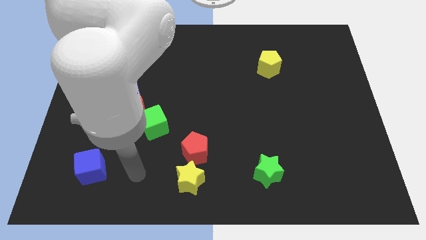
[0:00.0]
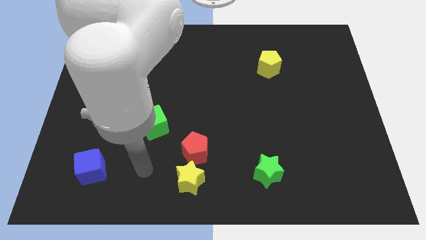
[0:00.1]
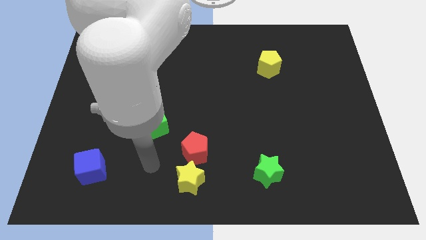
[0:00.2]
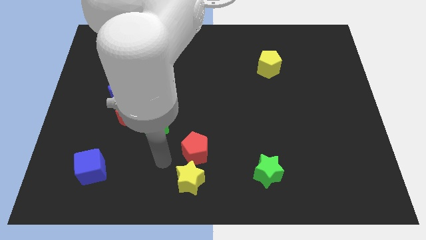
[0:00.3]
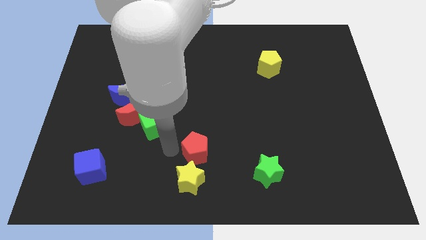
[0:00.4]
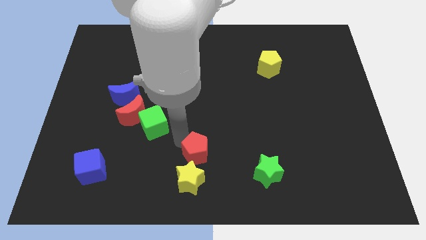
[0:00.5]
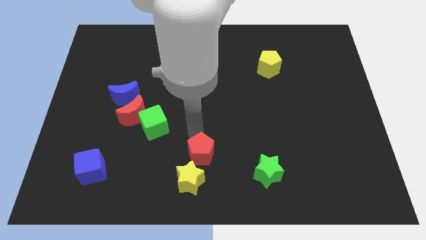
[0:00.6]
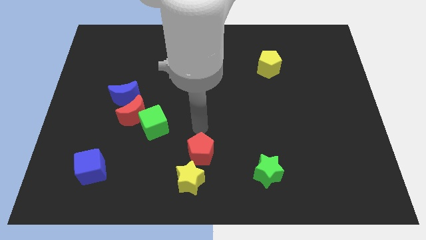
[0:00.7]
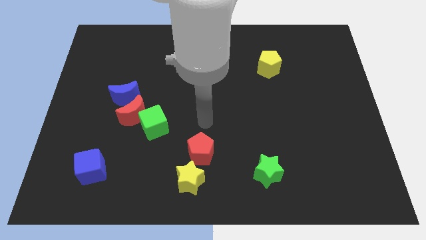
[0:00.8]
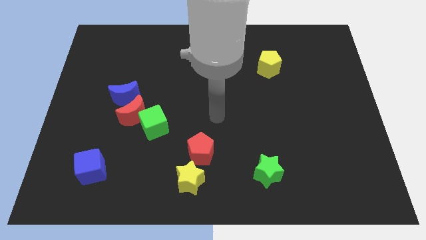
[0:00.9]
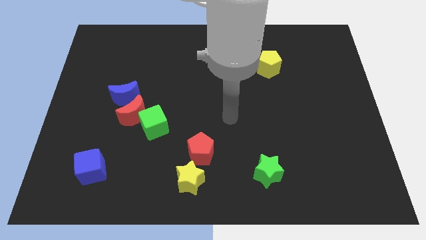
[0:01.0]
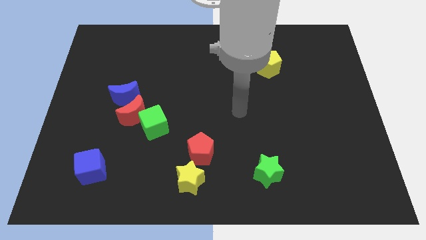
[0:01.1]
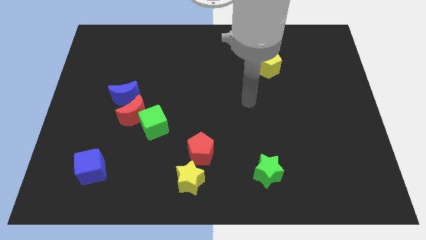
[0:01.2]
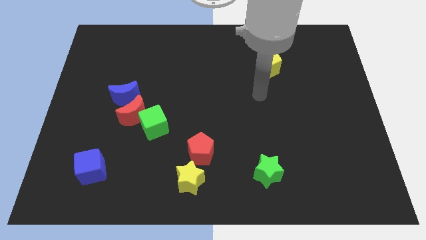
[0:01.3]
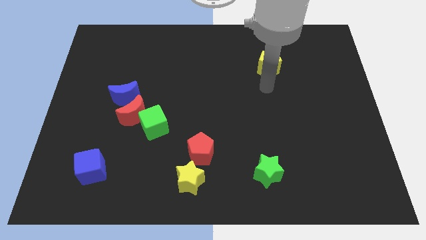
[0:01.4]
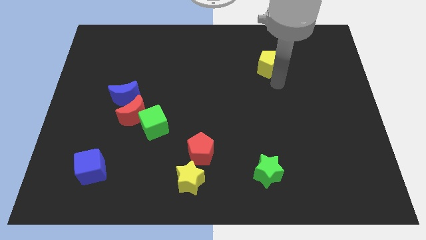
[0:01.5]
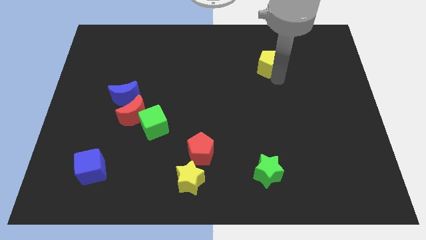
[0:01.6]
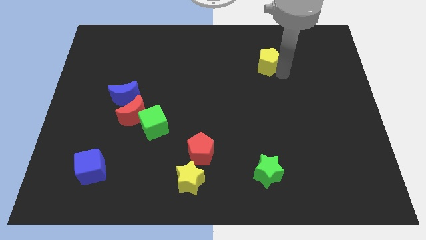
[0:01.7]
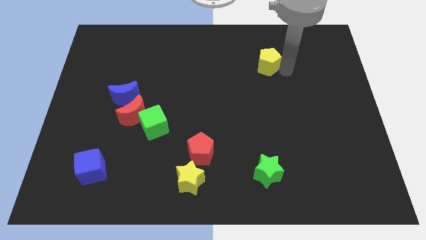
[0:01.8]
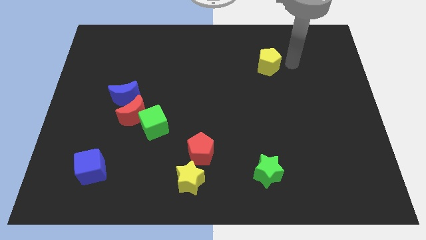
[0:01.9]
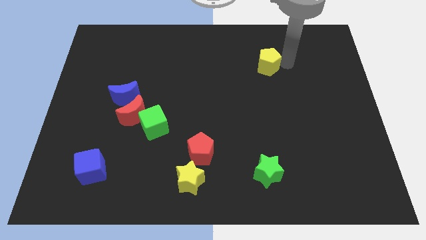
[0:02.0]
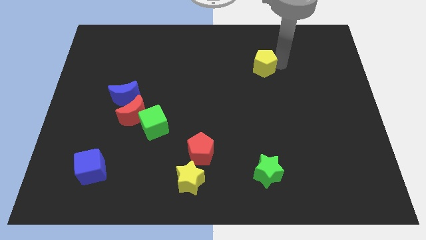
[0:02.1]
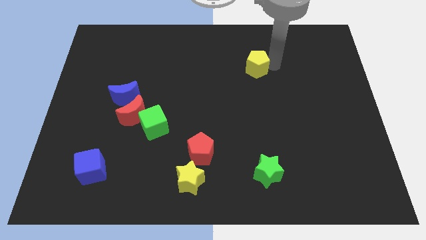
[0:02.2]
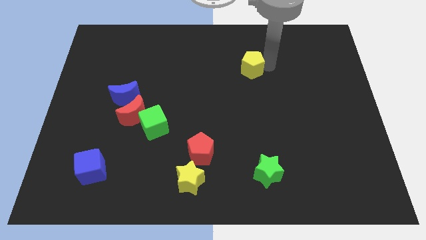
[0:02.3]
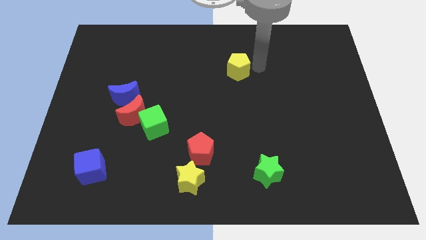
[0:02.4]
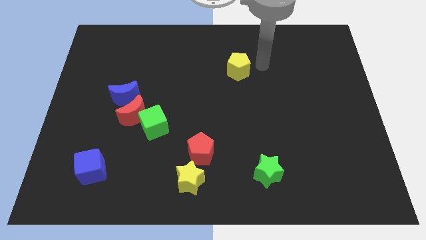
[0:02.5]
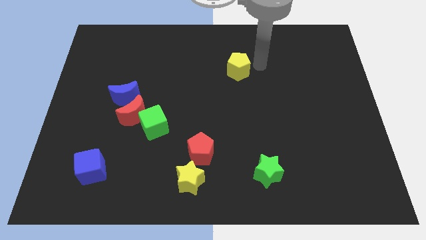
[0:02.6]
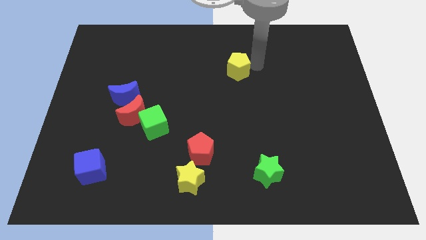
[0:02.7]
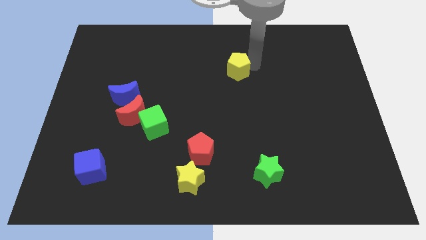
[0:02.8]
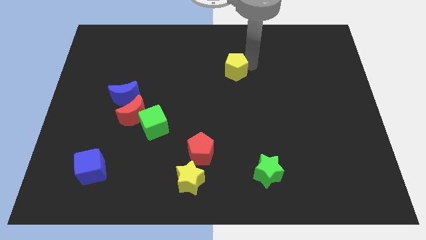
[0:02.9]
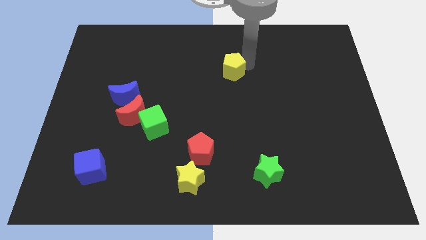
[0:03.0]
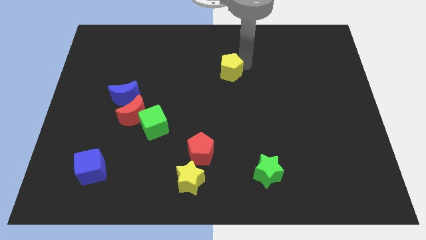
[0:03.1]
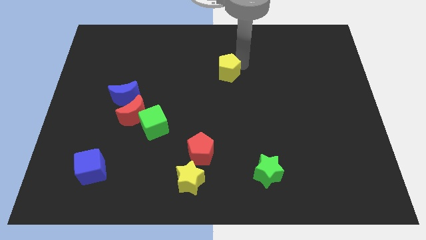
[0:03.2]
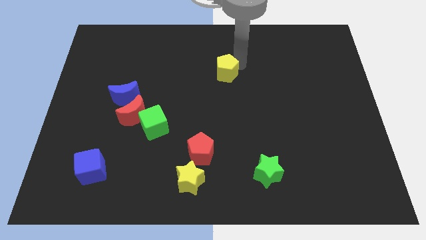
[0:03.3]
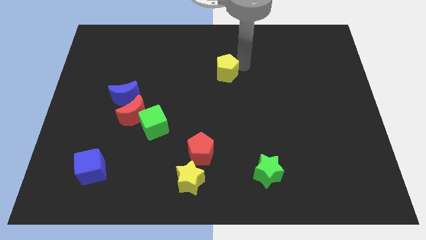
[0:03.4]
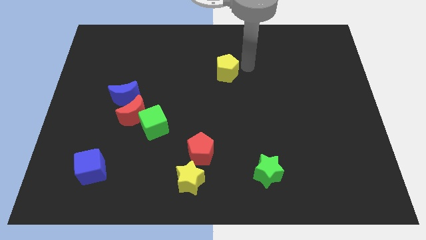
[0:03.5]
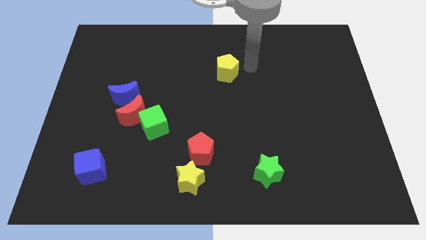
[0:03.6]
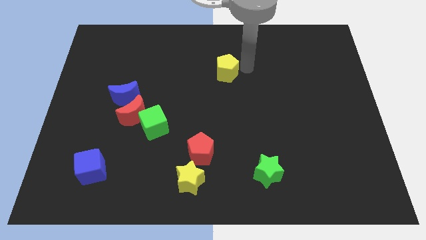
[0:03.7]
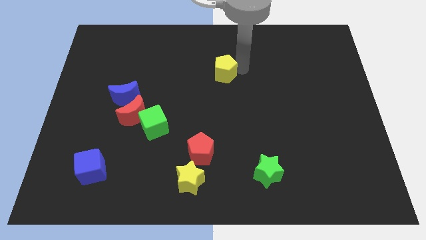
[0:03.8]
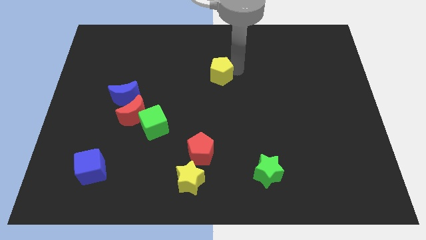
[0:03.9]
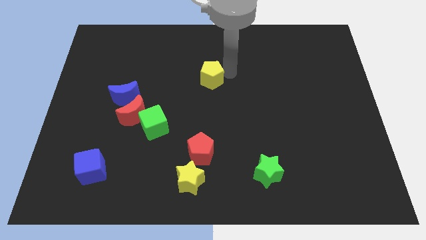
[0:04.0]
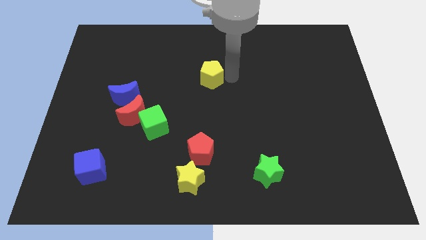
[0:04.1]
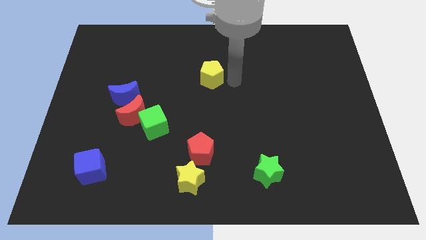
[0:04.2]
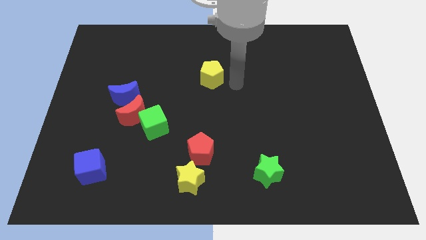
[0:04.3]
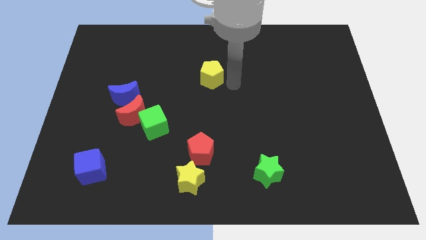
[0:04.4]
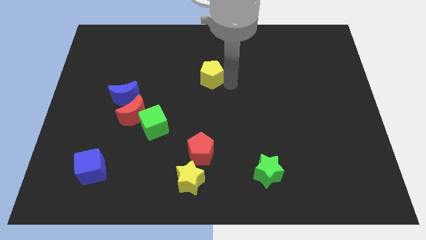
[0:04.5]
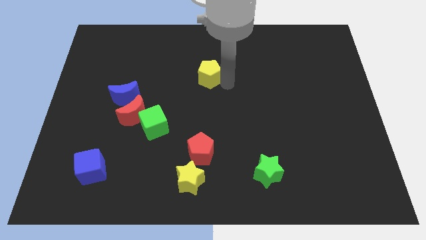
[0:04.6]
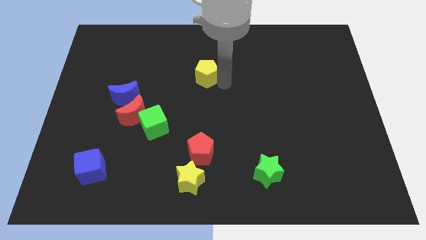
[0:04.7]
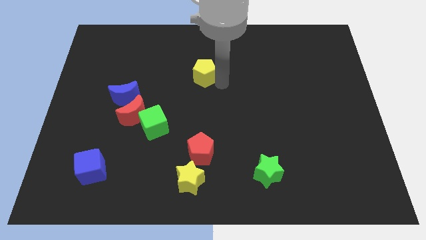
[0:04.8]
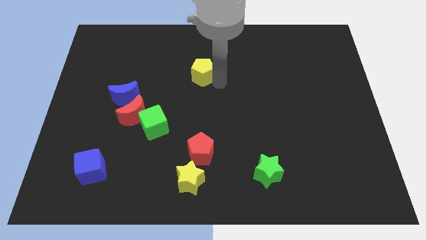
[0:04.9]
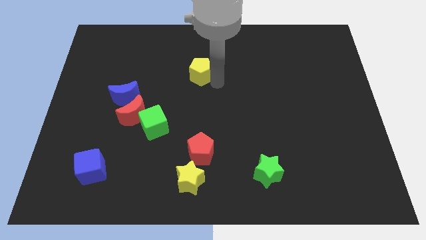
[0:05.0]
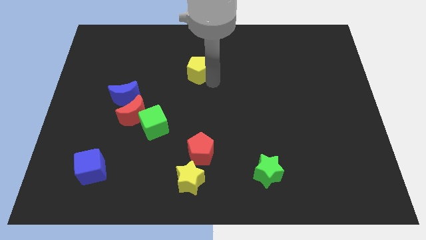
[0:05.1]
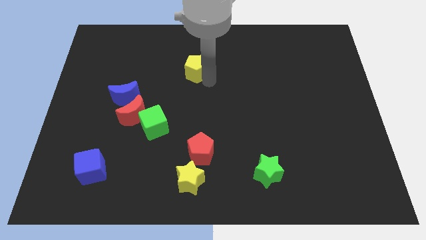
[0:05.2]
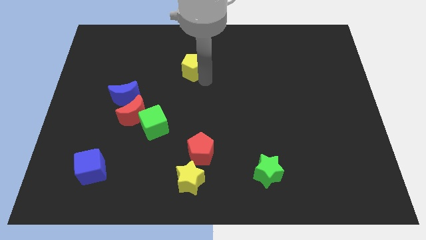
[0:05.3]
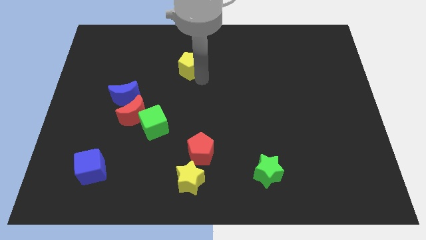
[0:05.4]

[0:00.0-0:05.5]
move the yellow pentagon to the left

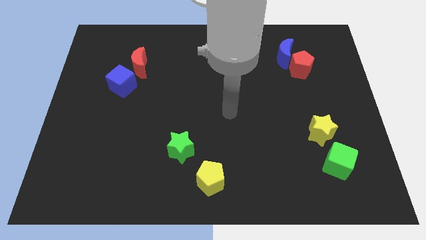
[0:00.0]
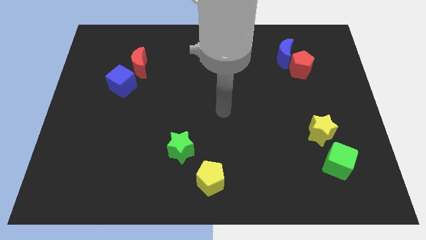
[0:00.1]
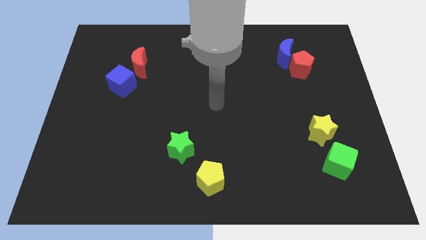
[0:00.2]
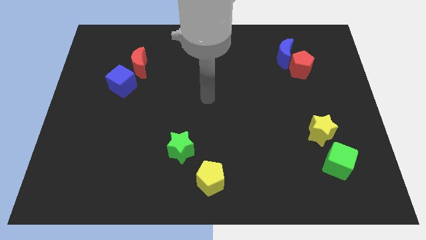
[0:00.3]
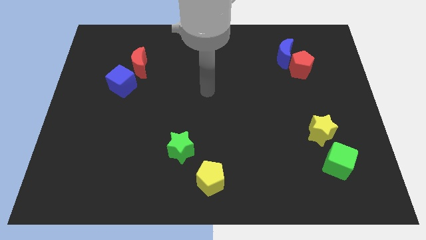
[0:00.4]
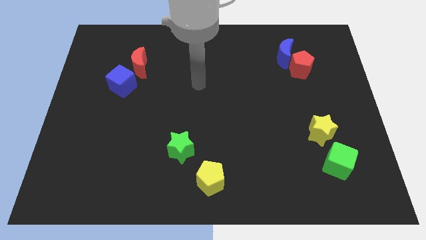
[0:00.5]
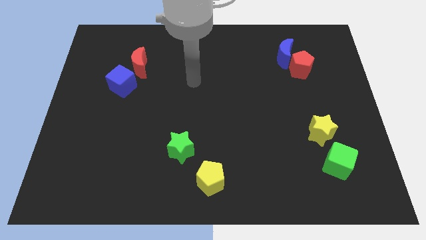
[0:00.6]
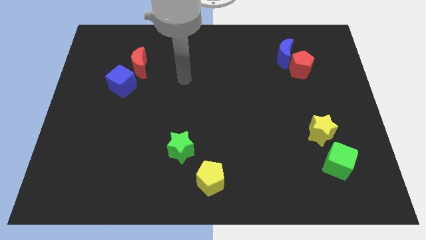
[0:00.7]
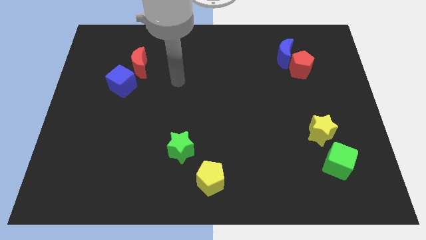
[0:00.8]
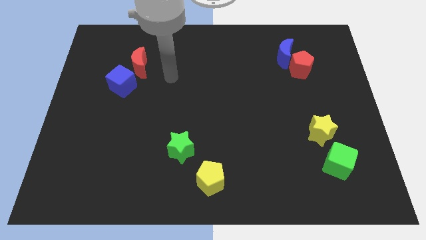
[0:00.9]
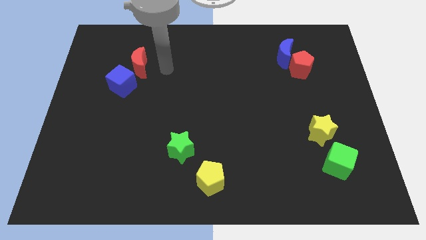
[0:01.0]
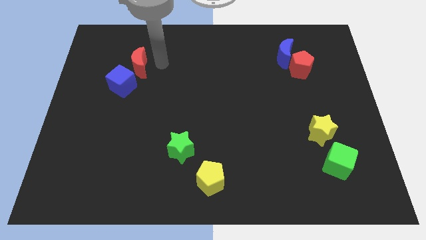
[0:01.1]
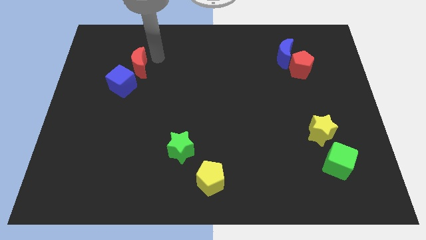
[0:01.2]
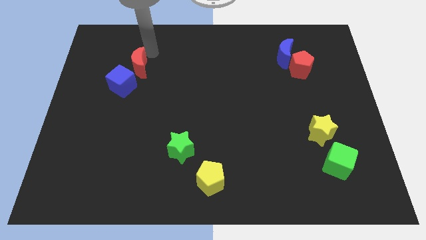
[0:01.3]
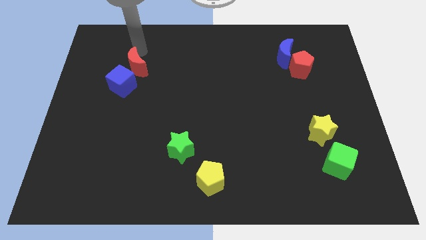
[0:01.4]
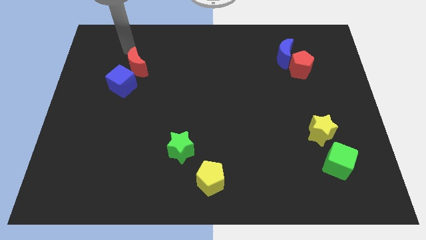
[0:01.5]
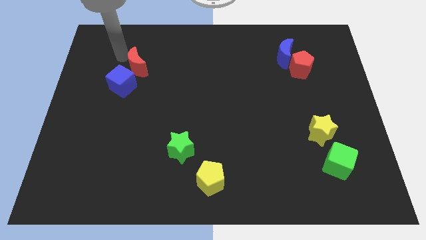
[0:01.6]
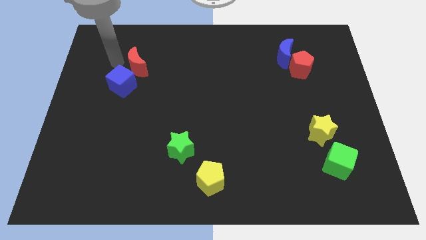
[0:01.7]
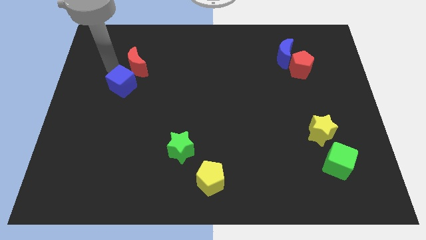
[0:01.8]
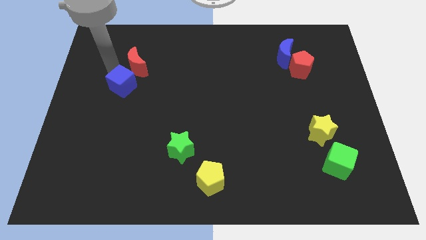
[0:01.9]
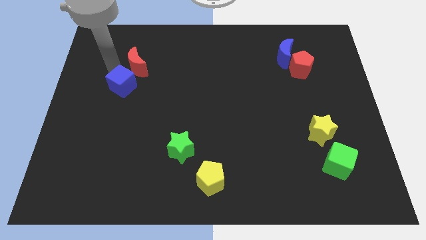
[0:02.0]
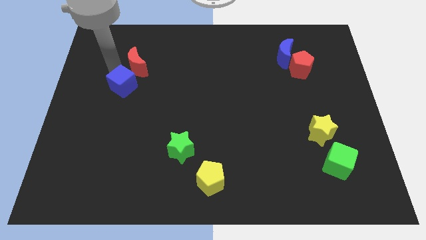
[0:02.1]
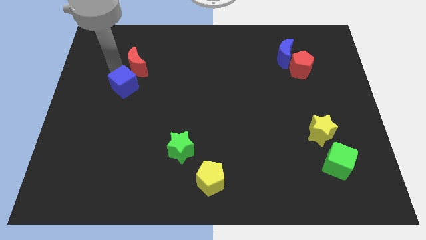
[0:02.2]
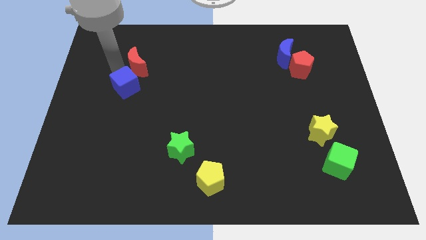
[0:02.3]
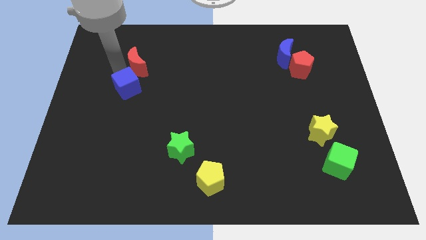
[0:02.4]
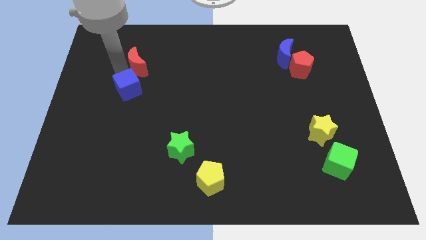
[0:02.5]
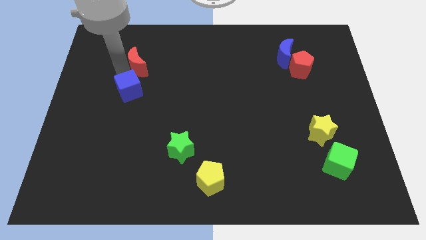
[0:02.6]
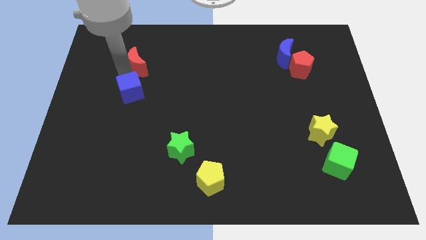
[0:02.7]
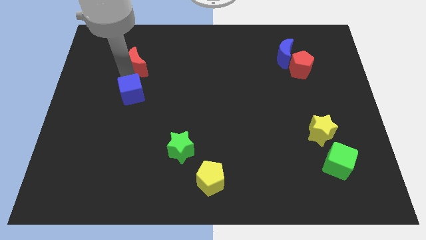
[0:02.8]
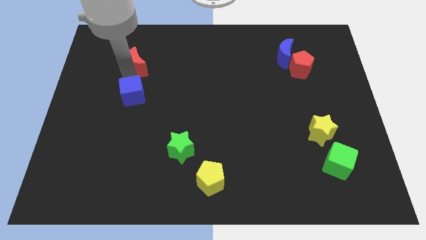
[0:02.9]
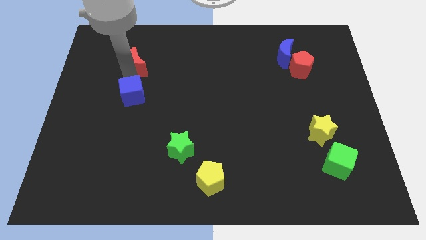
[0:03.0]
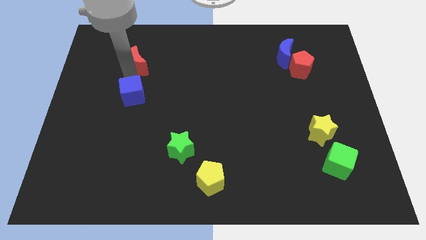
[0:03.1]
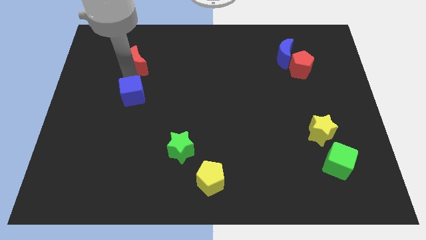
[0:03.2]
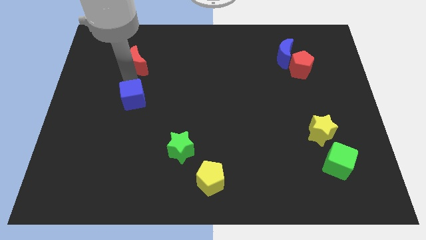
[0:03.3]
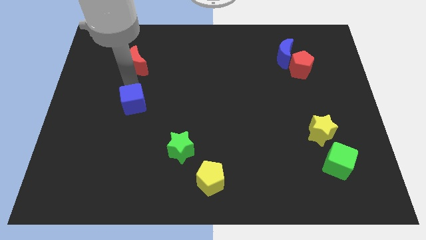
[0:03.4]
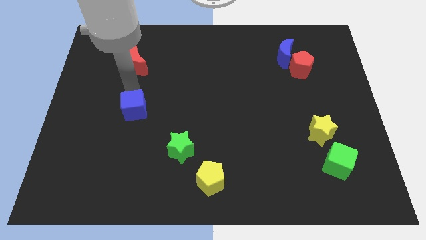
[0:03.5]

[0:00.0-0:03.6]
move the blue cube a little bit downwards
